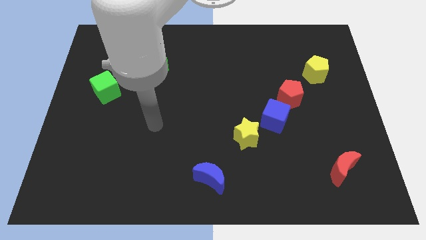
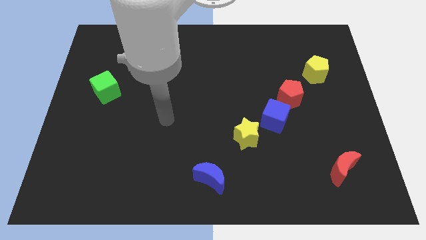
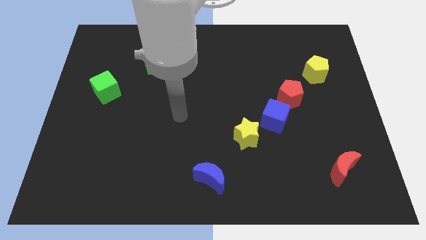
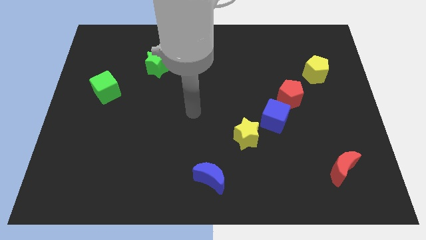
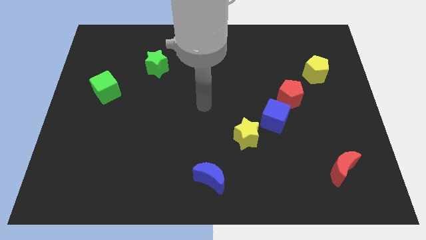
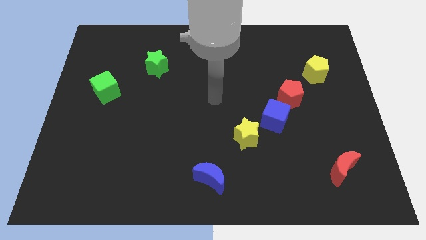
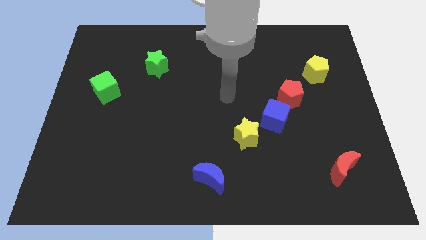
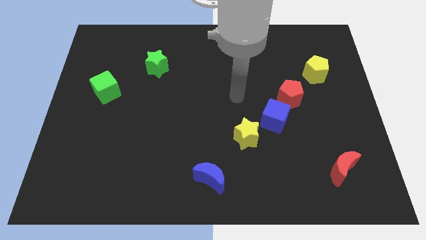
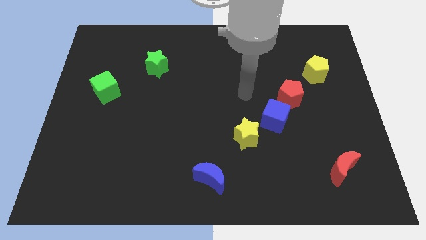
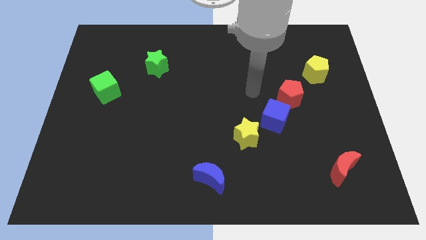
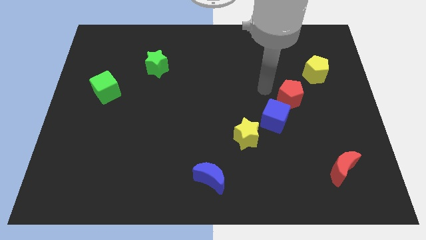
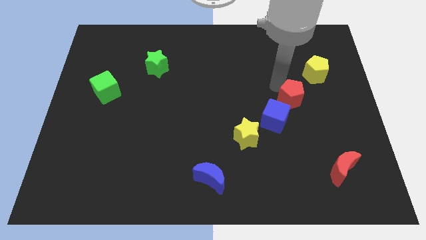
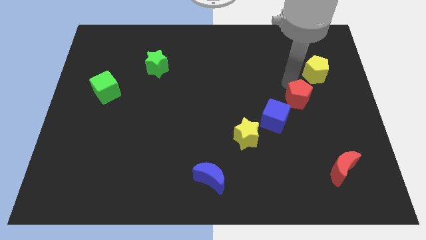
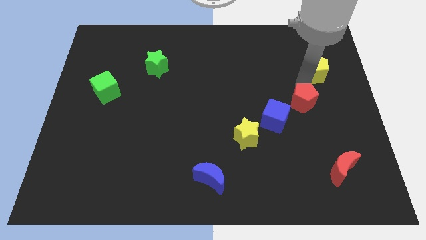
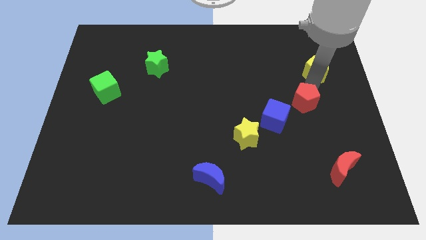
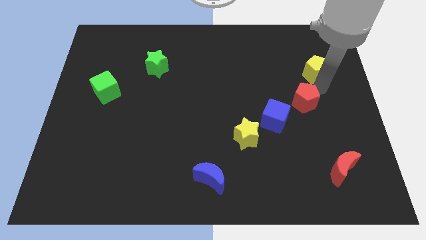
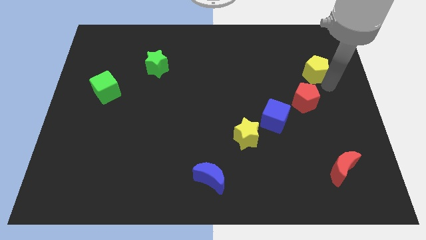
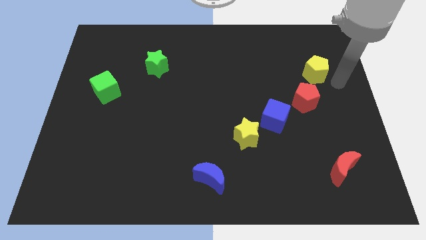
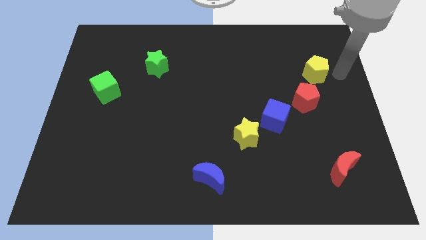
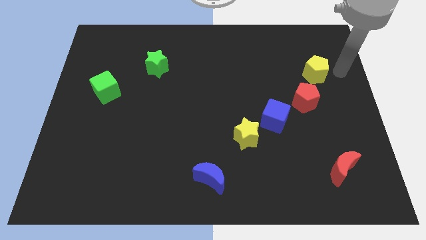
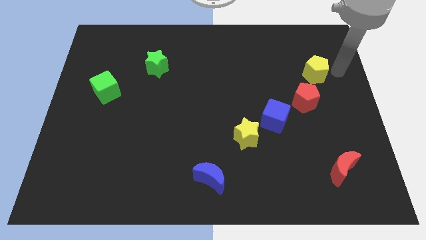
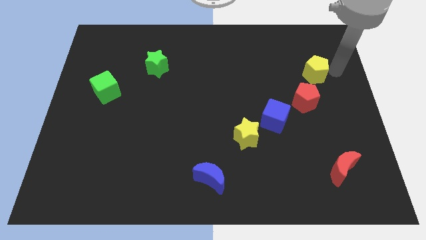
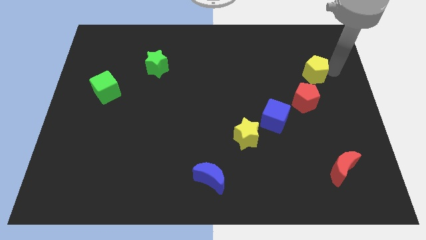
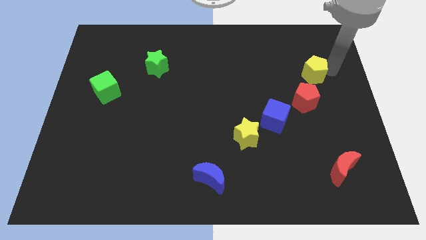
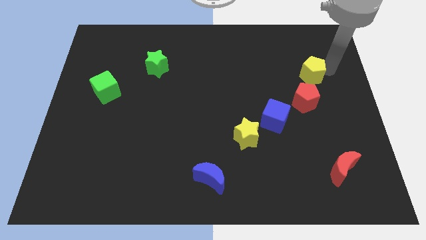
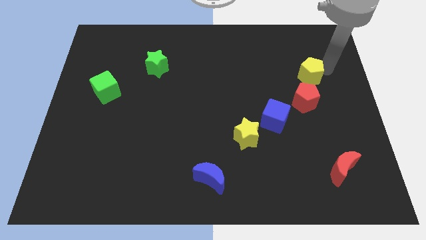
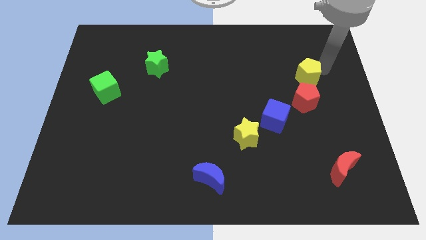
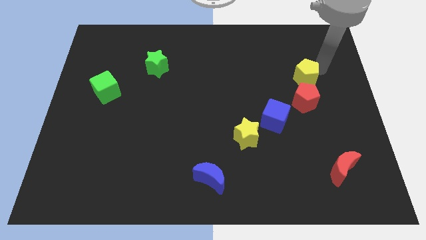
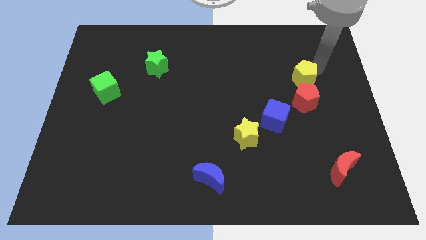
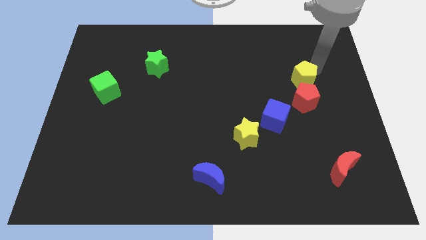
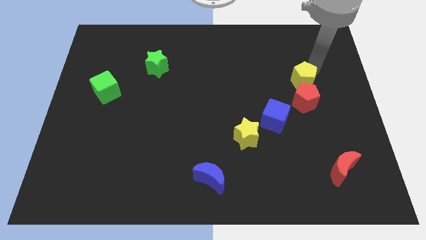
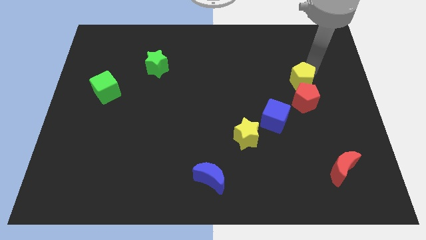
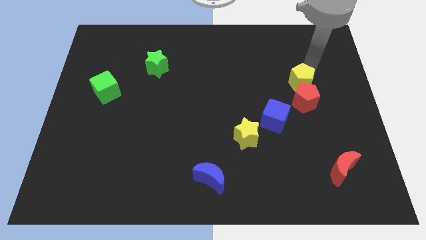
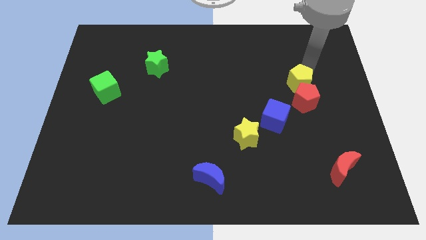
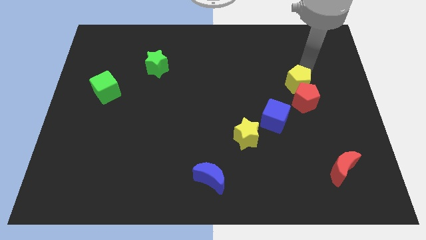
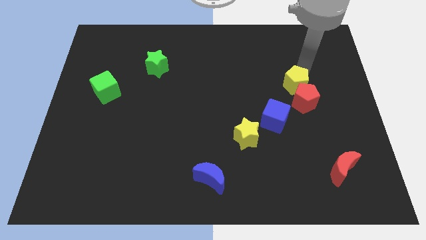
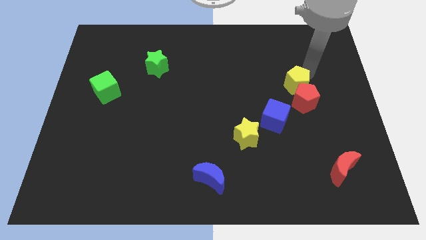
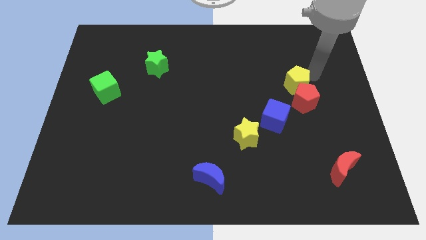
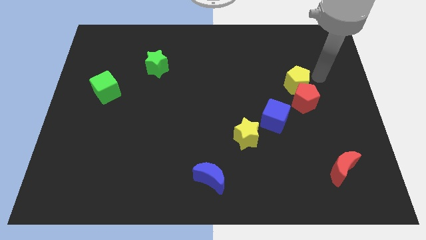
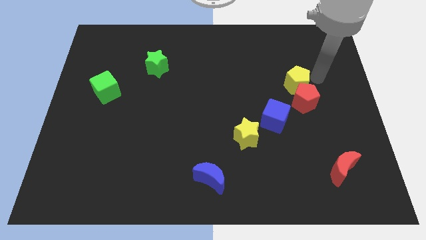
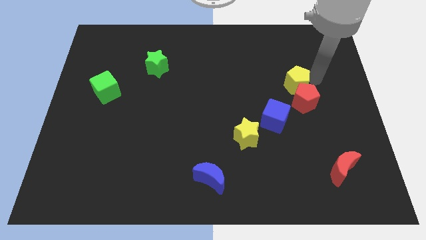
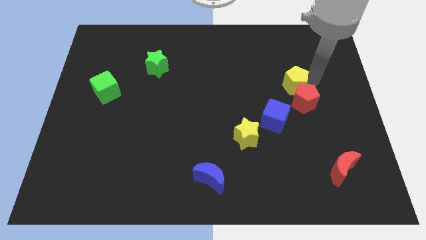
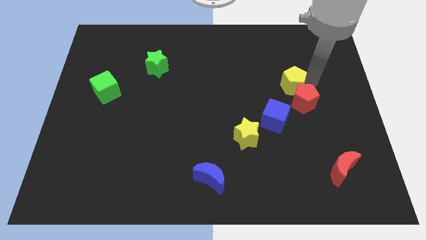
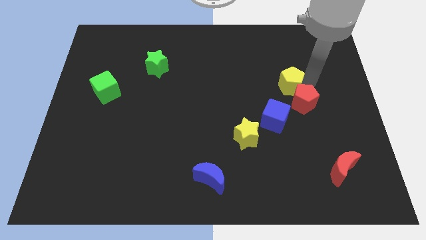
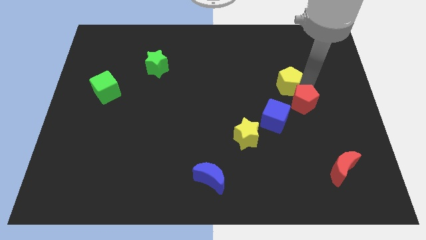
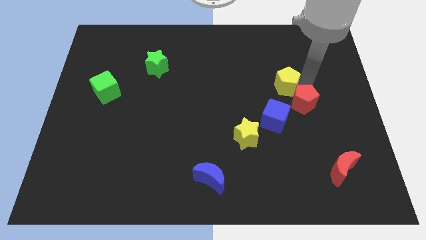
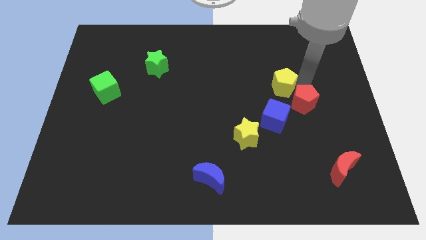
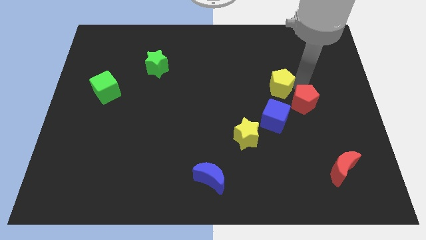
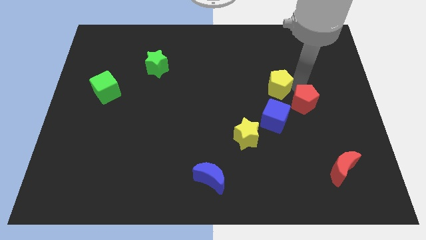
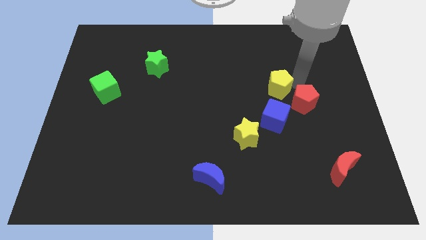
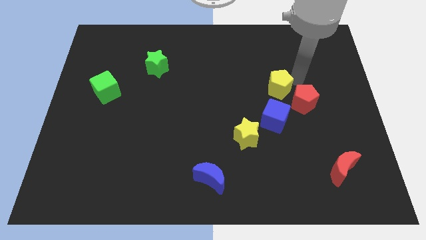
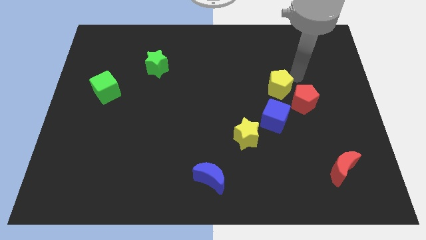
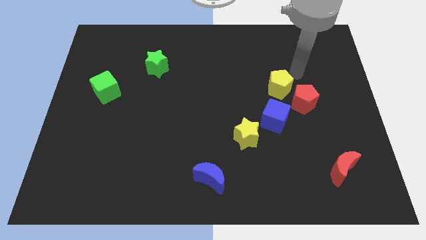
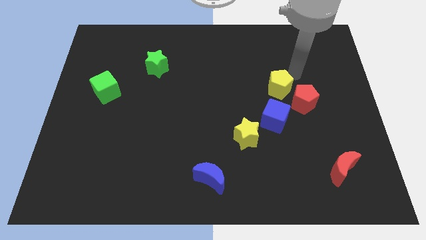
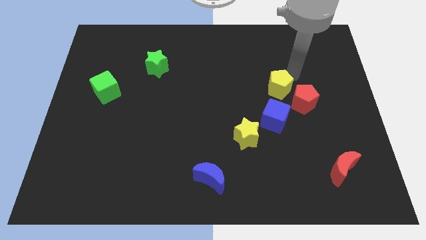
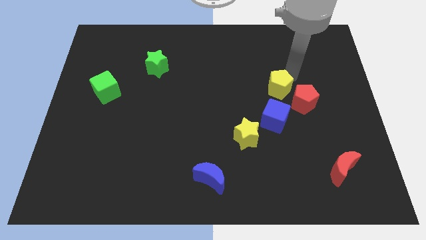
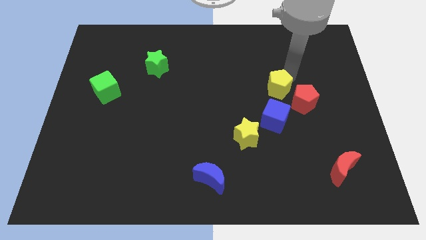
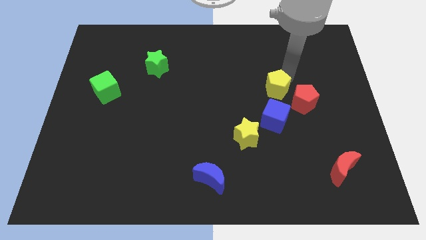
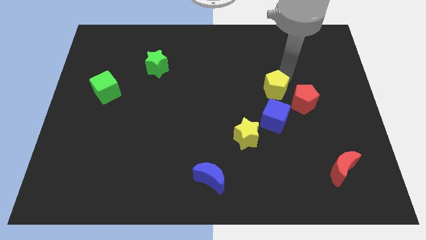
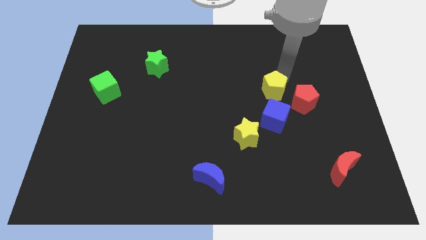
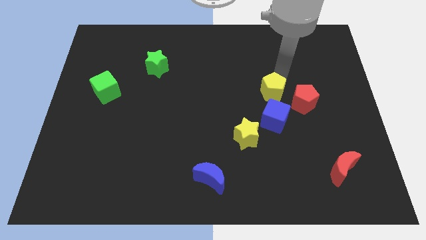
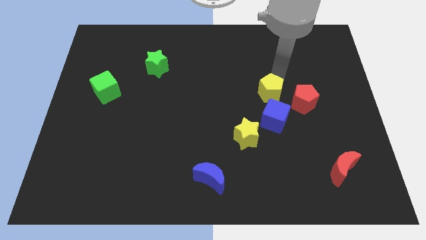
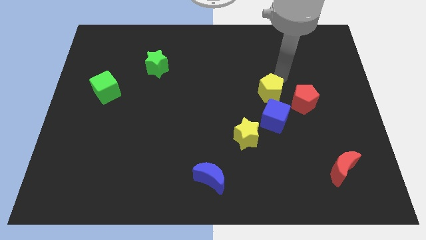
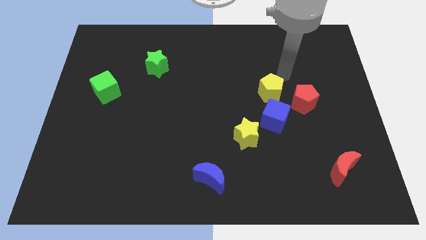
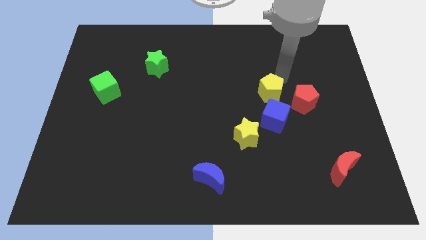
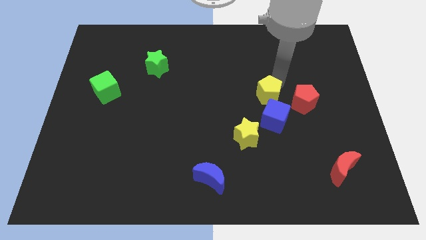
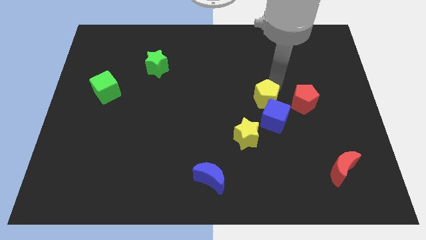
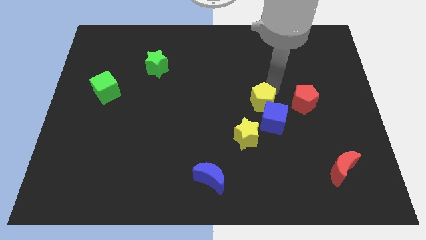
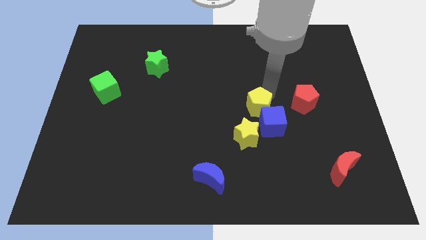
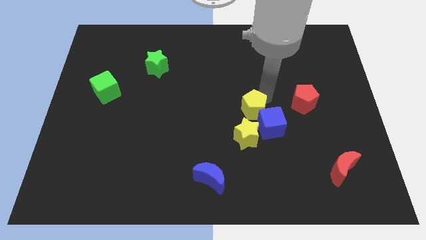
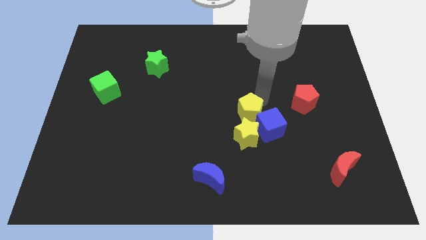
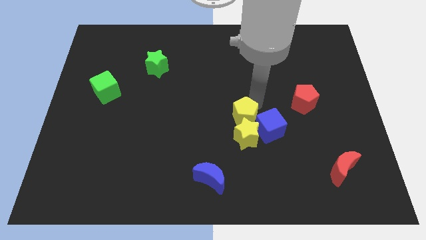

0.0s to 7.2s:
slide the yellow pentagon towards the yellow star
